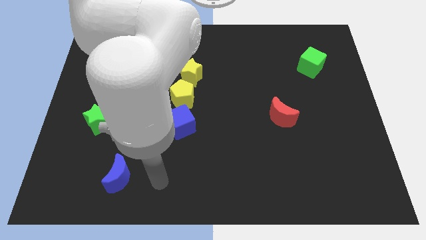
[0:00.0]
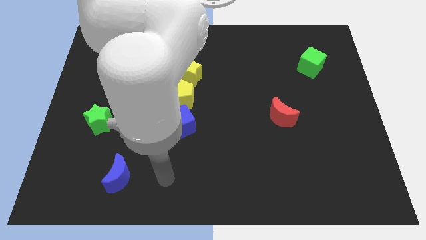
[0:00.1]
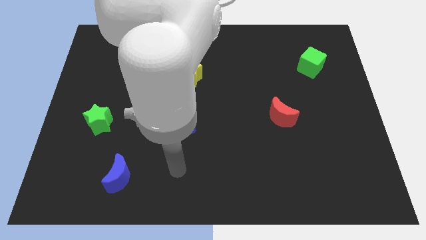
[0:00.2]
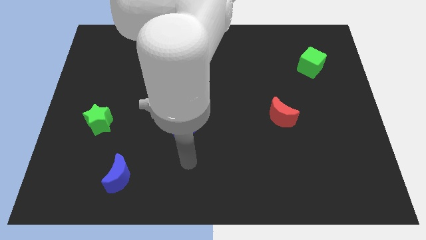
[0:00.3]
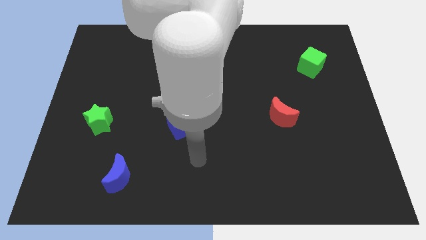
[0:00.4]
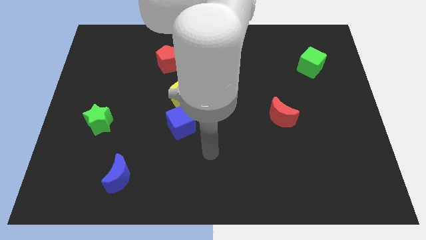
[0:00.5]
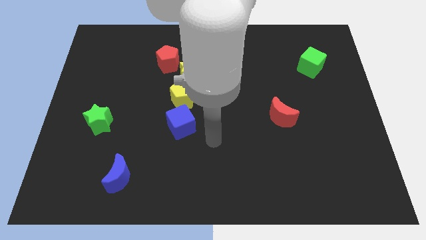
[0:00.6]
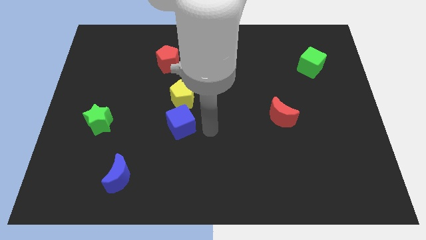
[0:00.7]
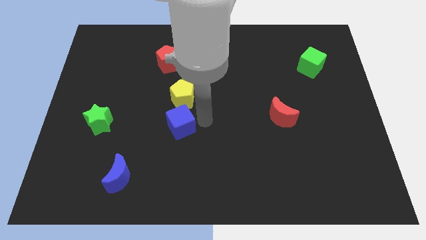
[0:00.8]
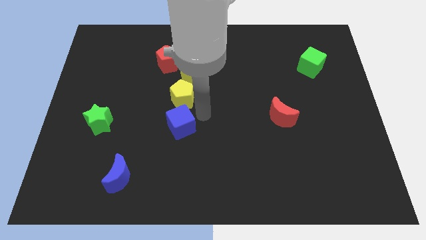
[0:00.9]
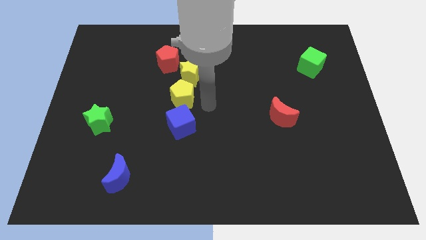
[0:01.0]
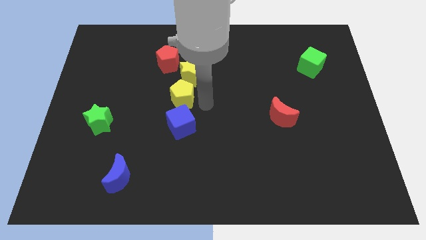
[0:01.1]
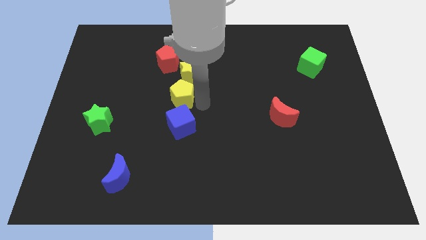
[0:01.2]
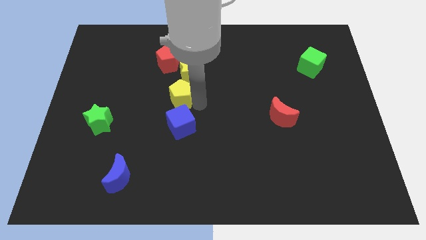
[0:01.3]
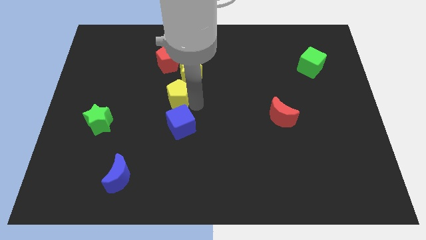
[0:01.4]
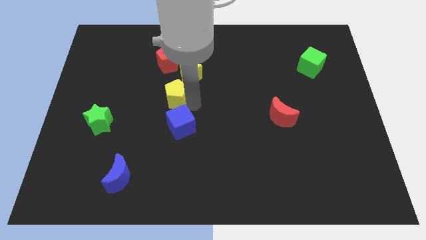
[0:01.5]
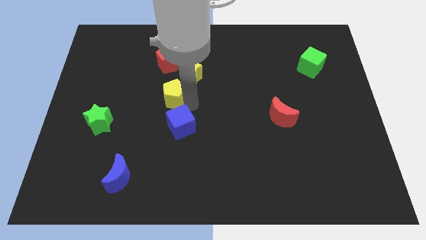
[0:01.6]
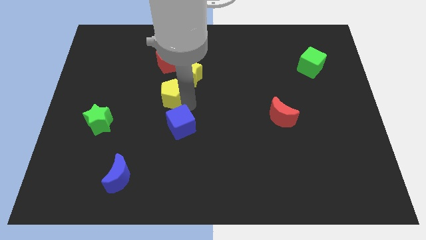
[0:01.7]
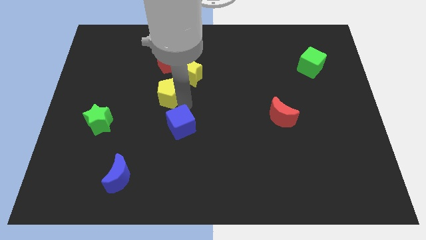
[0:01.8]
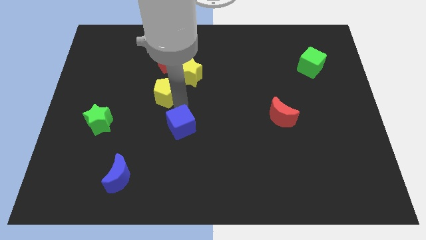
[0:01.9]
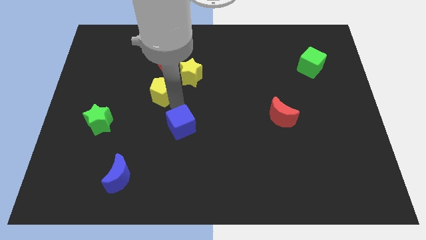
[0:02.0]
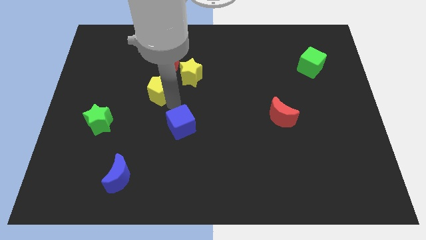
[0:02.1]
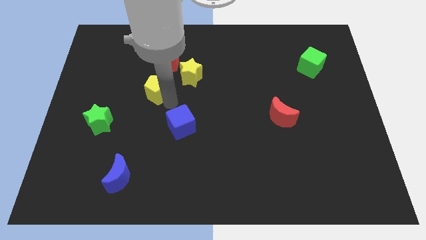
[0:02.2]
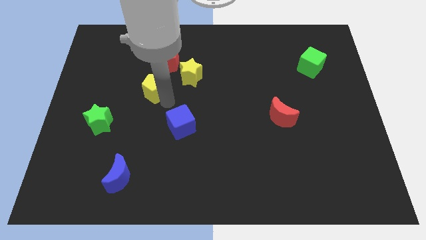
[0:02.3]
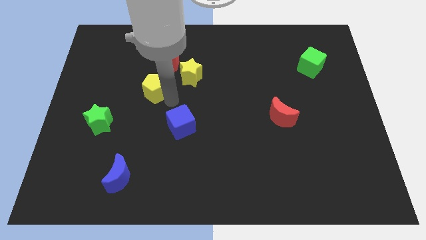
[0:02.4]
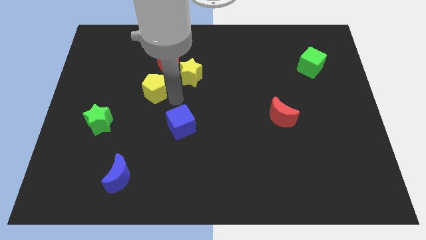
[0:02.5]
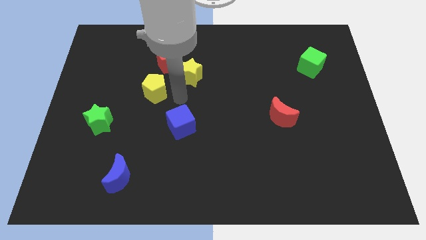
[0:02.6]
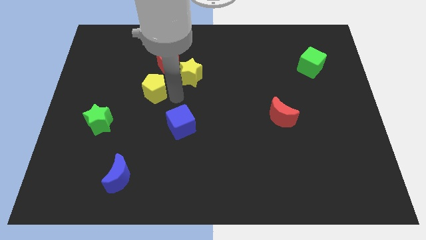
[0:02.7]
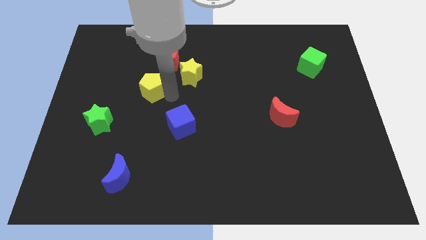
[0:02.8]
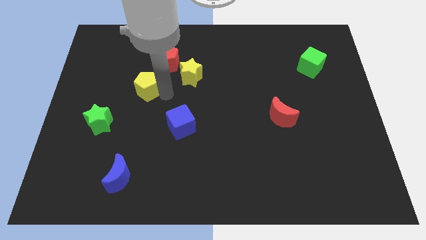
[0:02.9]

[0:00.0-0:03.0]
pull the yellow pentagon apart from the yellow star and blue cube

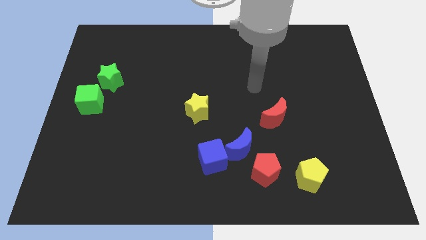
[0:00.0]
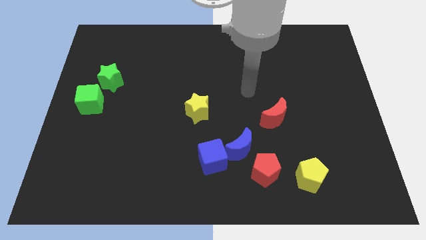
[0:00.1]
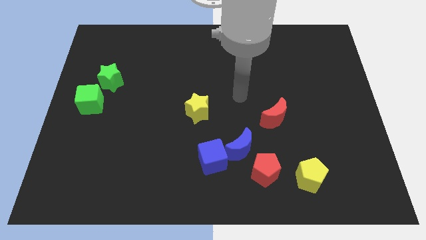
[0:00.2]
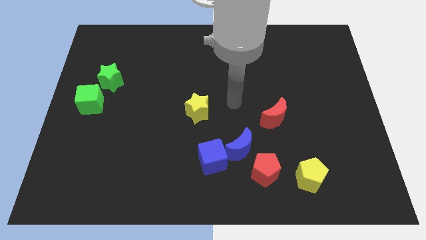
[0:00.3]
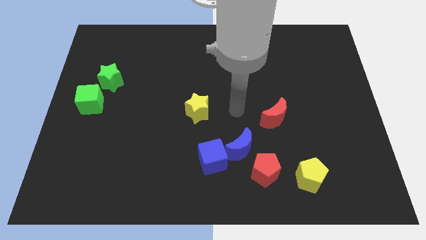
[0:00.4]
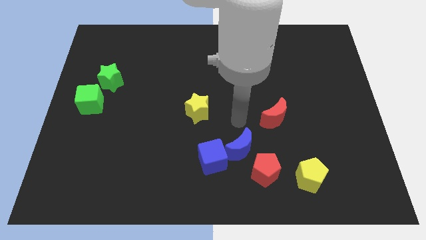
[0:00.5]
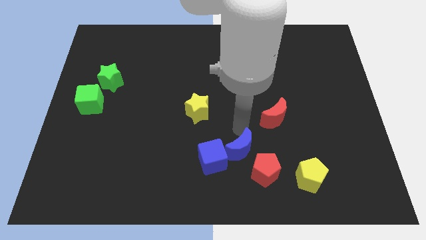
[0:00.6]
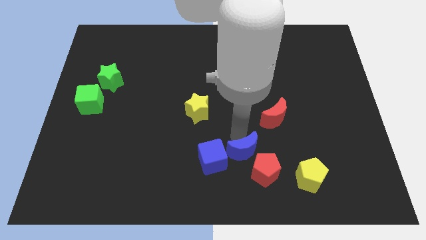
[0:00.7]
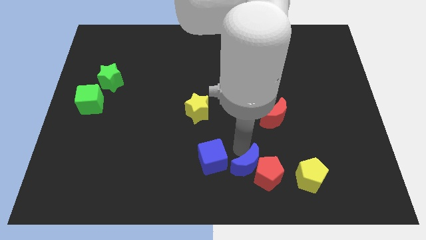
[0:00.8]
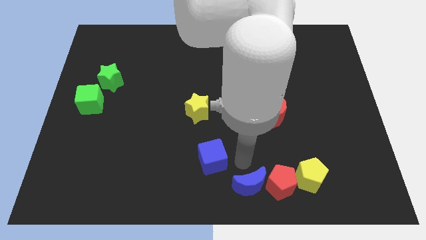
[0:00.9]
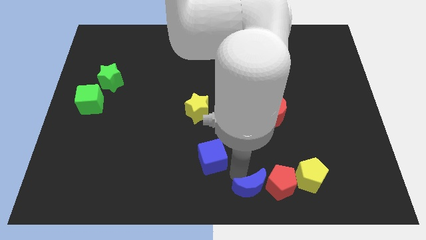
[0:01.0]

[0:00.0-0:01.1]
separate the blue cube from the blue moon

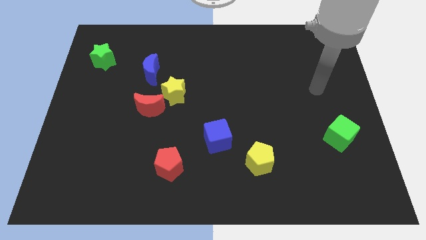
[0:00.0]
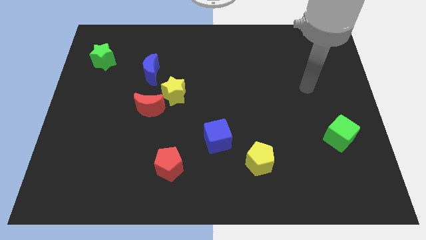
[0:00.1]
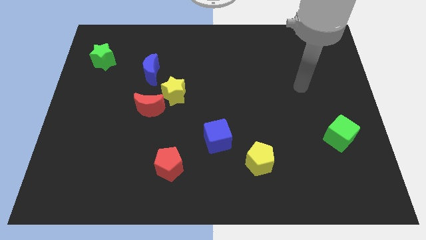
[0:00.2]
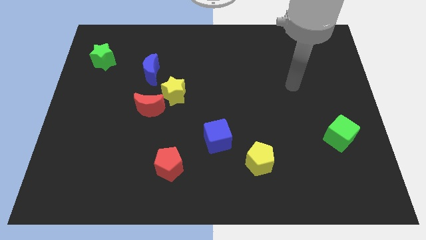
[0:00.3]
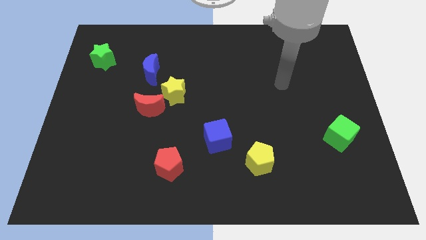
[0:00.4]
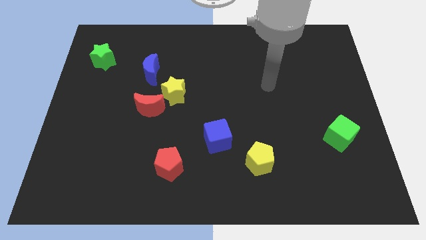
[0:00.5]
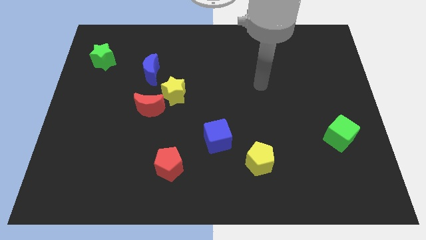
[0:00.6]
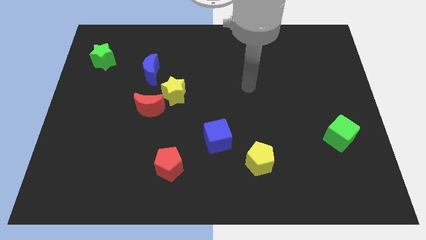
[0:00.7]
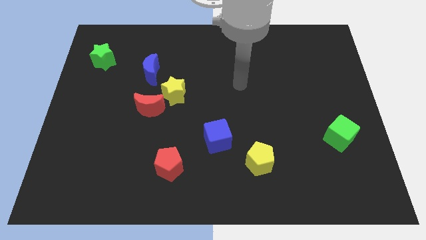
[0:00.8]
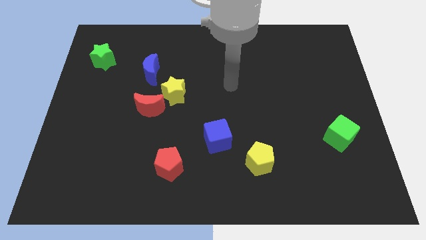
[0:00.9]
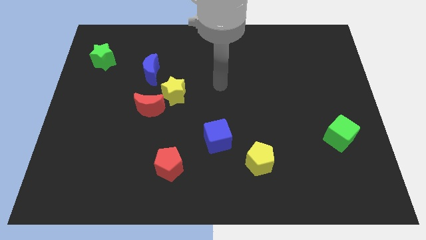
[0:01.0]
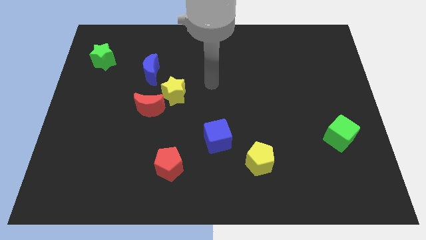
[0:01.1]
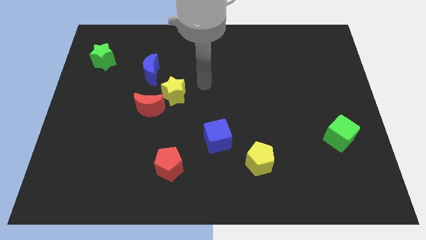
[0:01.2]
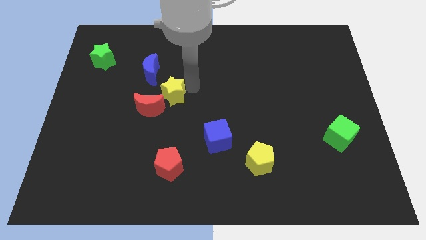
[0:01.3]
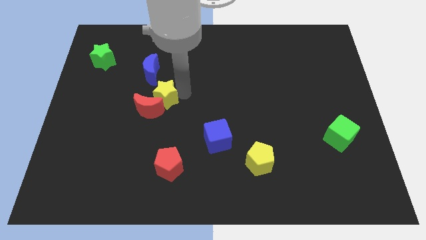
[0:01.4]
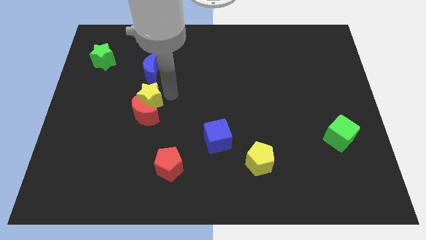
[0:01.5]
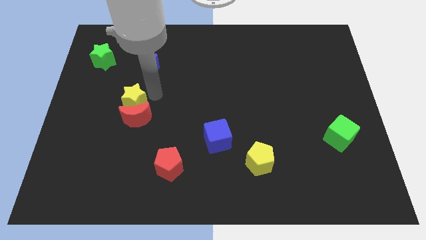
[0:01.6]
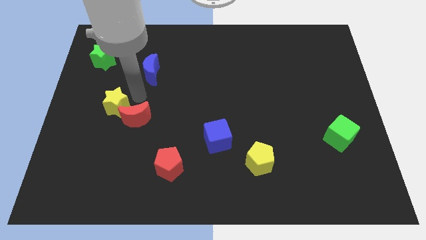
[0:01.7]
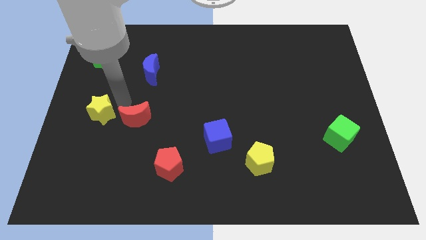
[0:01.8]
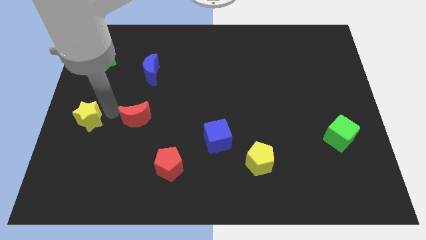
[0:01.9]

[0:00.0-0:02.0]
move the red moon away from the yellow star

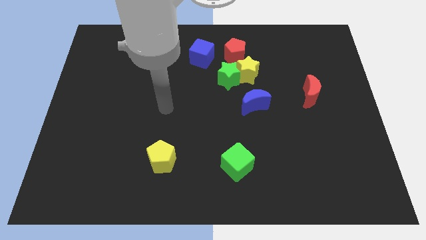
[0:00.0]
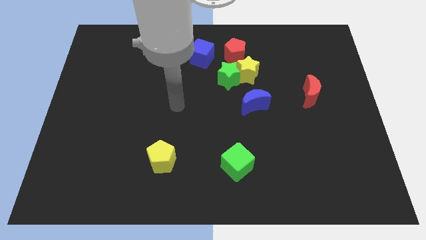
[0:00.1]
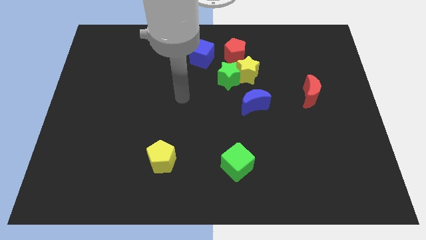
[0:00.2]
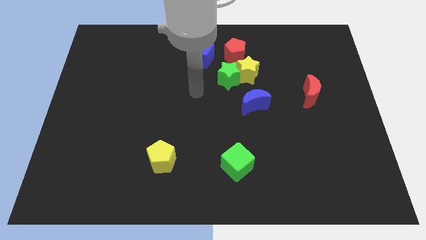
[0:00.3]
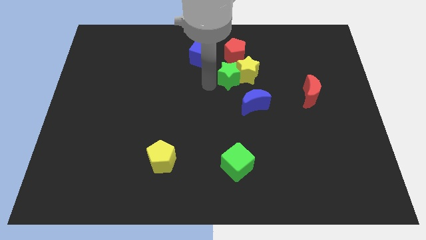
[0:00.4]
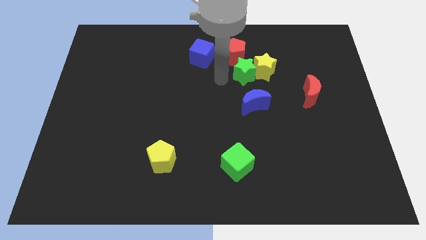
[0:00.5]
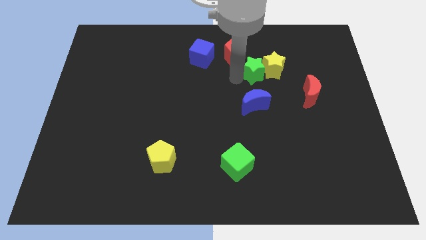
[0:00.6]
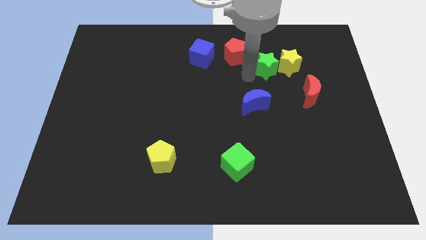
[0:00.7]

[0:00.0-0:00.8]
pull the yellow star apart from the green star, red pentagon, and blue moon

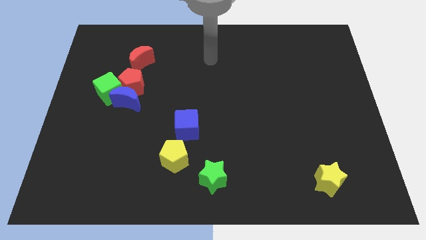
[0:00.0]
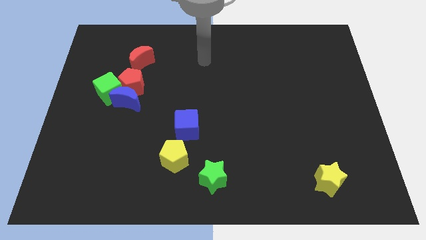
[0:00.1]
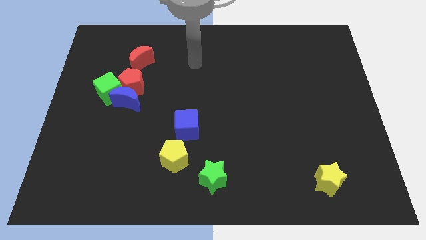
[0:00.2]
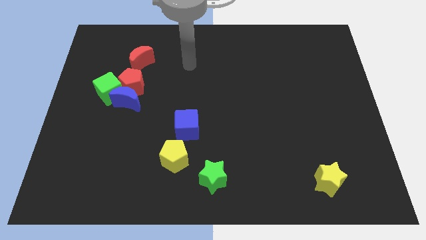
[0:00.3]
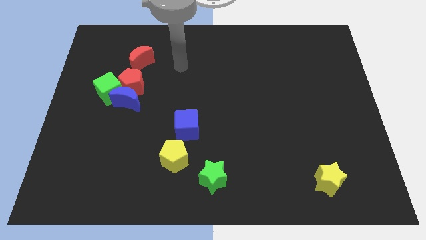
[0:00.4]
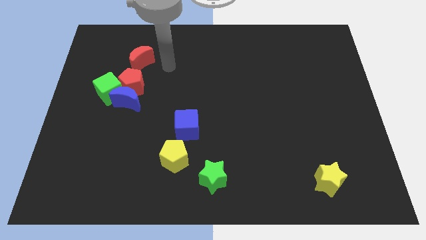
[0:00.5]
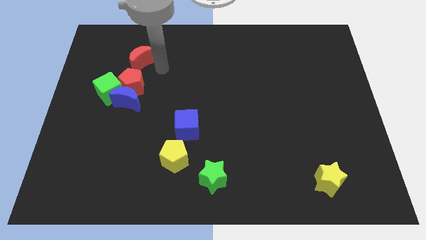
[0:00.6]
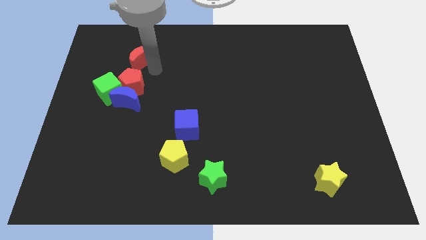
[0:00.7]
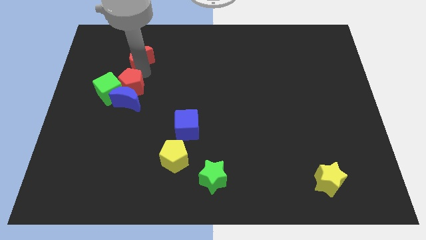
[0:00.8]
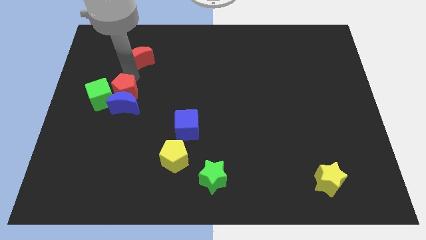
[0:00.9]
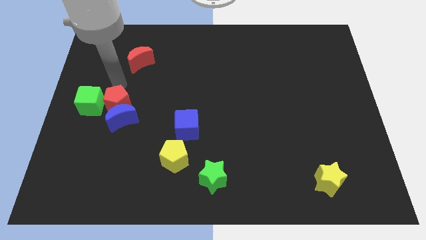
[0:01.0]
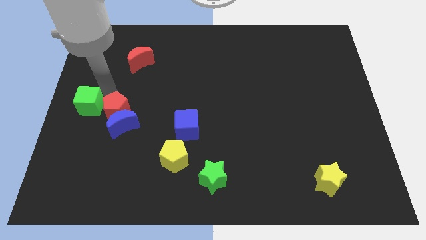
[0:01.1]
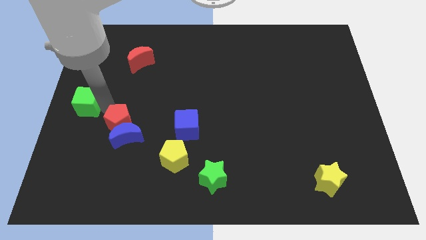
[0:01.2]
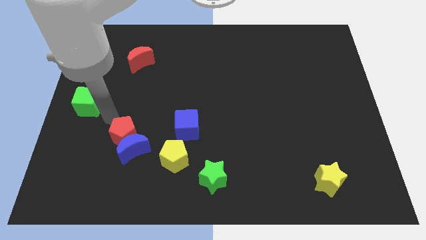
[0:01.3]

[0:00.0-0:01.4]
pull the blue moon apart from the red pentagon and green cube

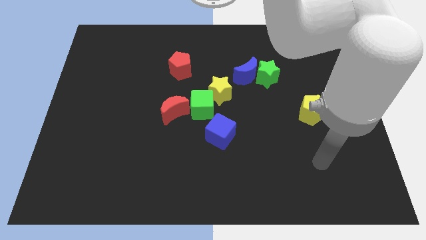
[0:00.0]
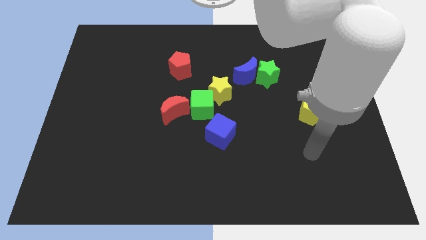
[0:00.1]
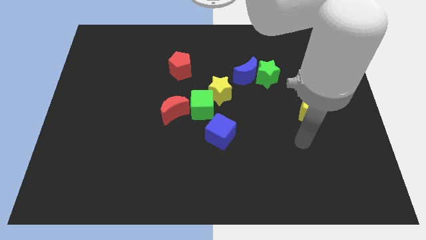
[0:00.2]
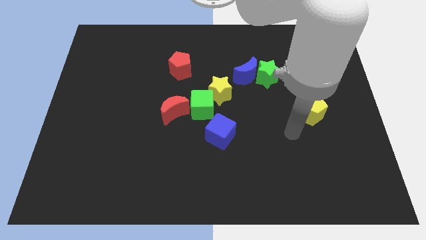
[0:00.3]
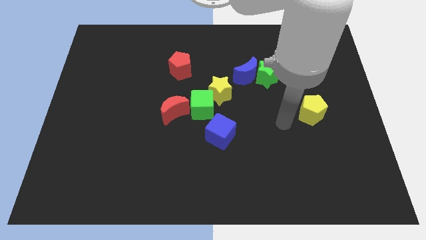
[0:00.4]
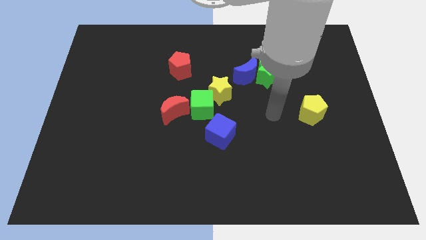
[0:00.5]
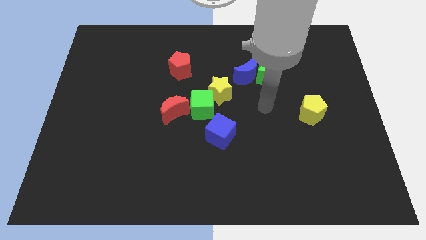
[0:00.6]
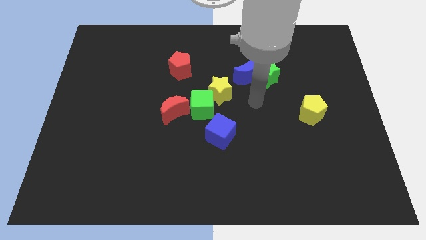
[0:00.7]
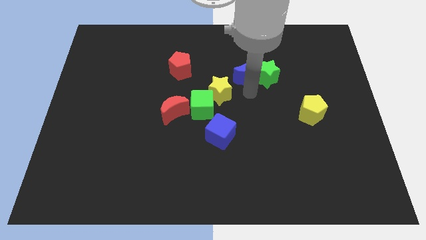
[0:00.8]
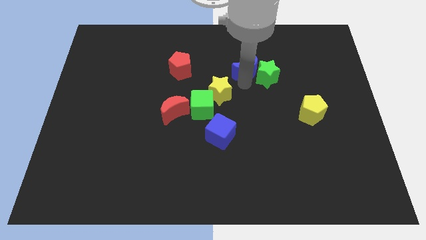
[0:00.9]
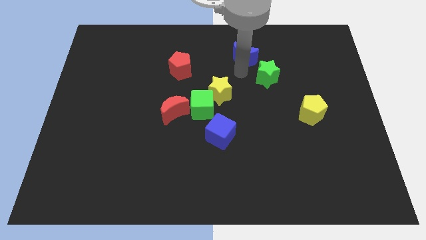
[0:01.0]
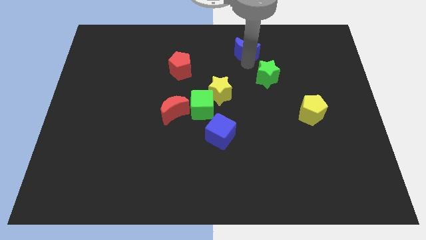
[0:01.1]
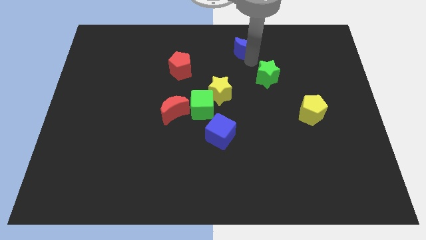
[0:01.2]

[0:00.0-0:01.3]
move the green star away from the blue moon
